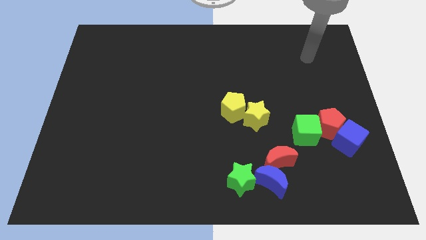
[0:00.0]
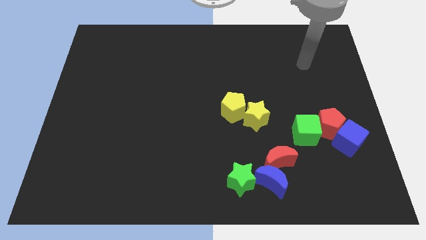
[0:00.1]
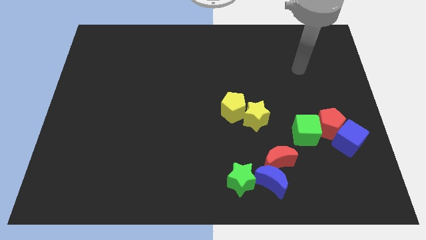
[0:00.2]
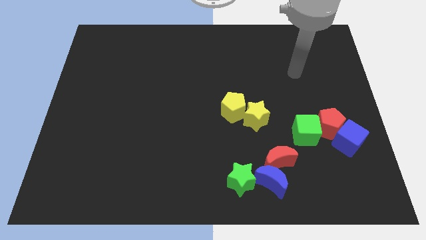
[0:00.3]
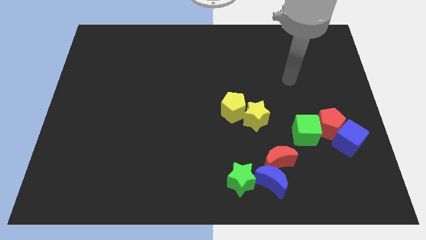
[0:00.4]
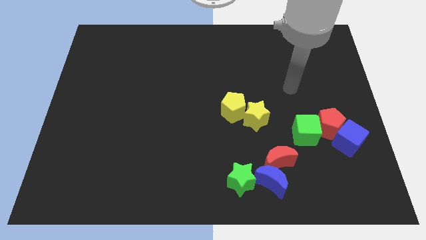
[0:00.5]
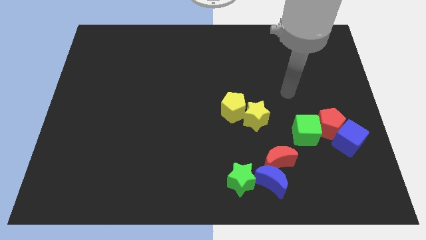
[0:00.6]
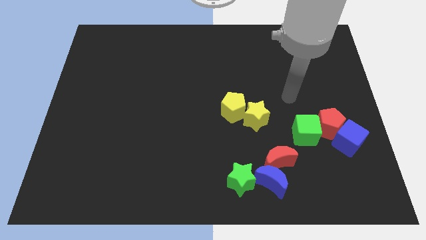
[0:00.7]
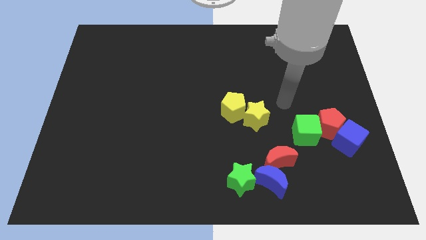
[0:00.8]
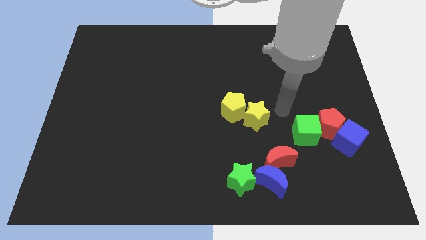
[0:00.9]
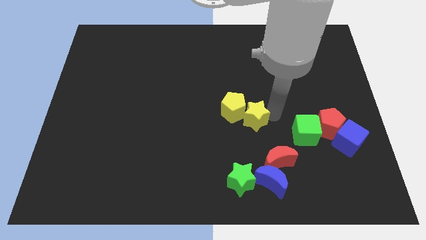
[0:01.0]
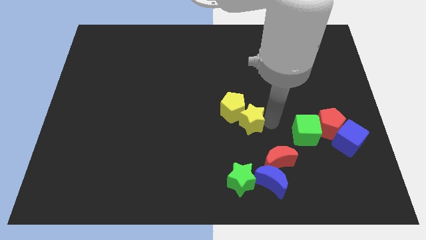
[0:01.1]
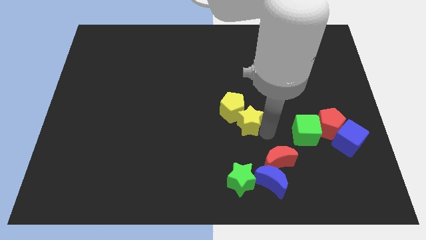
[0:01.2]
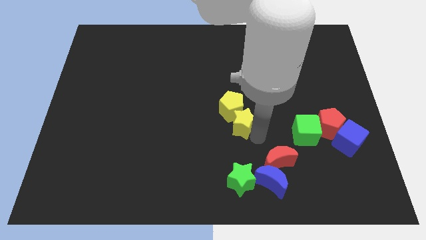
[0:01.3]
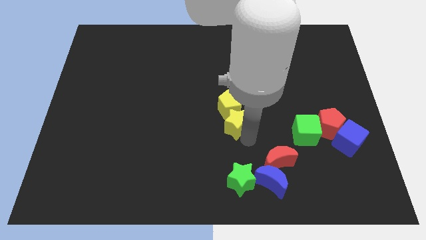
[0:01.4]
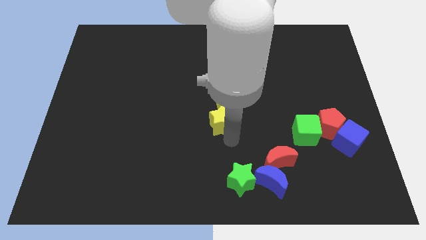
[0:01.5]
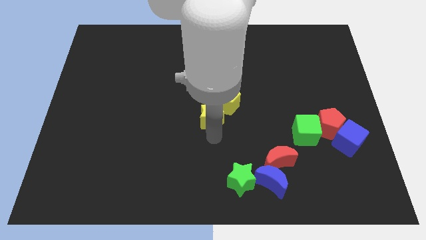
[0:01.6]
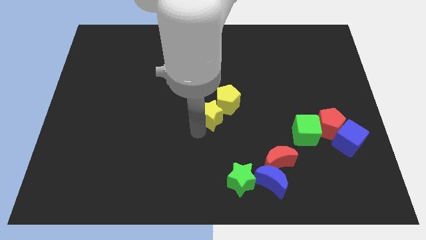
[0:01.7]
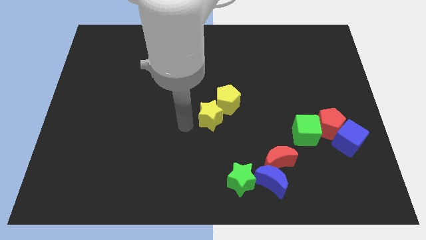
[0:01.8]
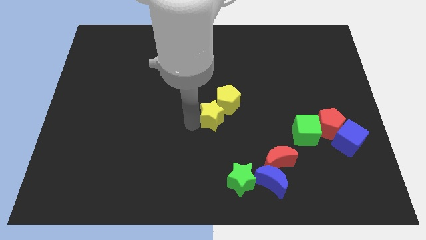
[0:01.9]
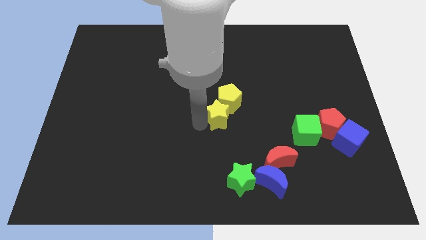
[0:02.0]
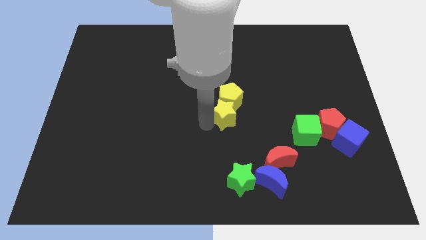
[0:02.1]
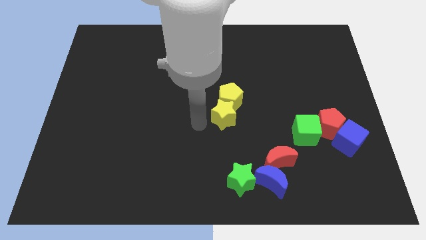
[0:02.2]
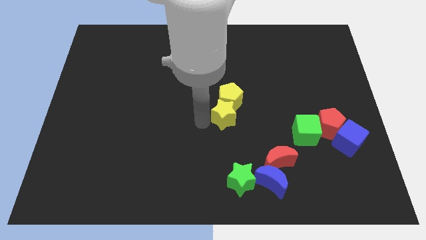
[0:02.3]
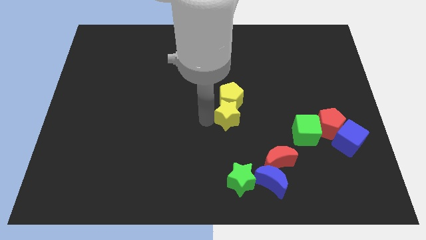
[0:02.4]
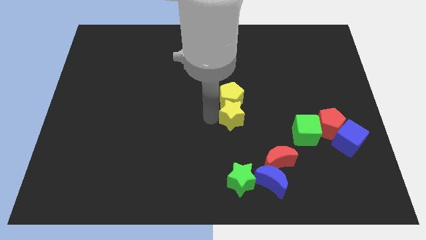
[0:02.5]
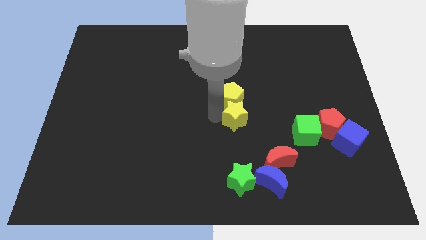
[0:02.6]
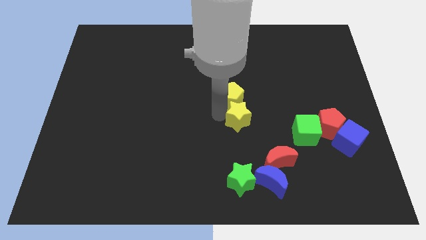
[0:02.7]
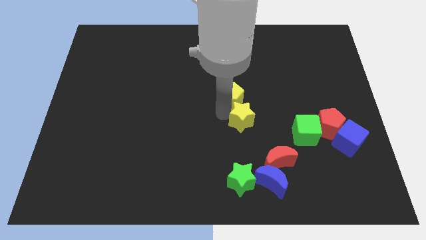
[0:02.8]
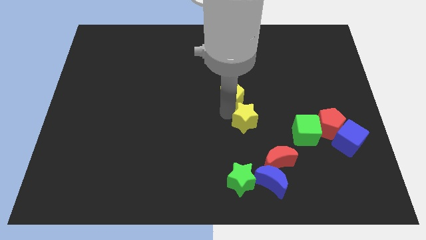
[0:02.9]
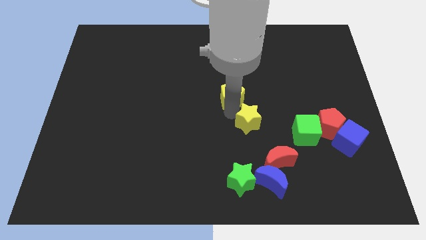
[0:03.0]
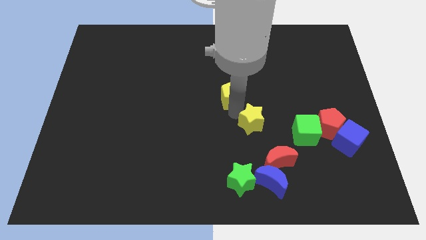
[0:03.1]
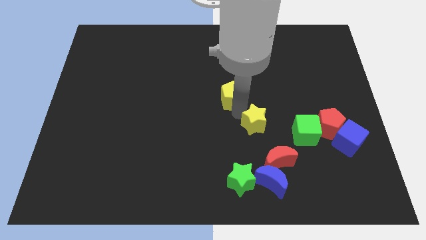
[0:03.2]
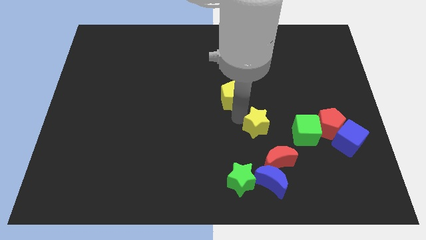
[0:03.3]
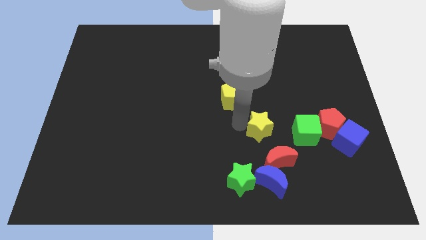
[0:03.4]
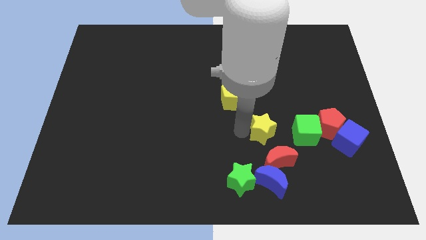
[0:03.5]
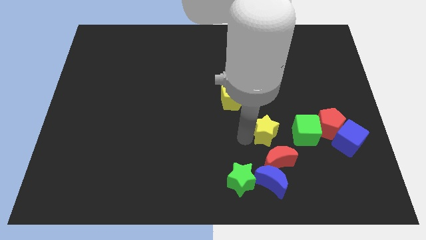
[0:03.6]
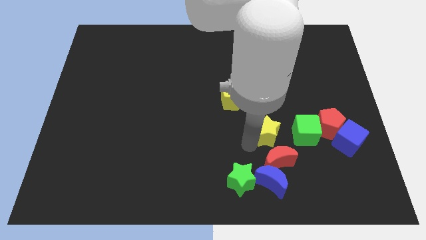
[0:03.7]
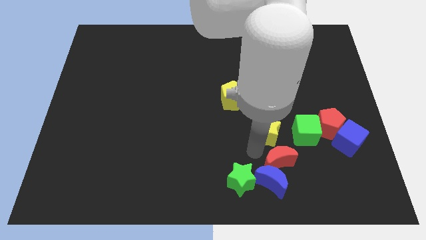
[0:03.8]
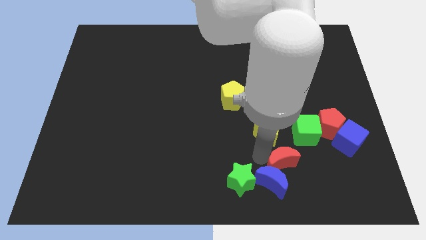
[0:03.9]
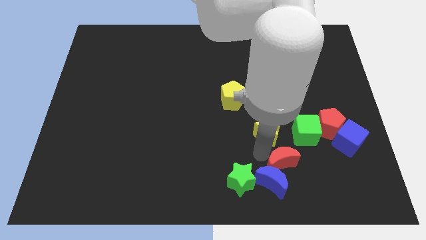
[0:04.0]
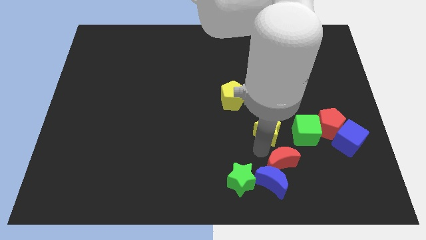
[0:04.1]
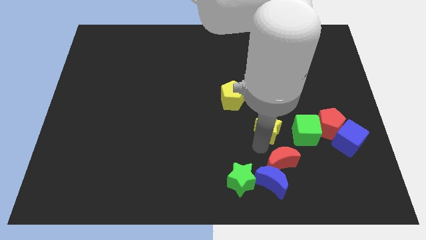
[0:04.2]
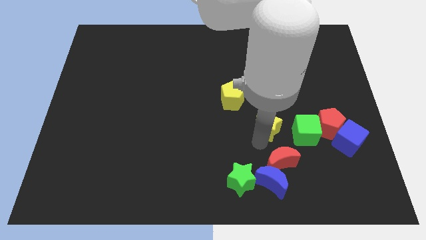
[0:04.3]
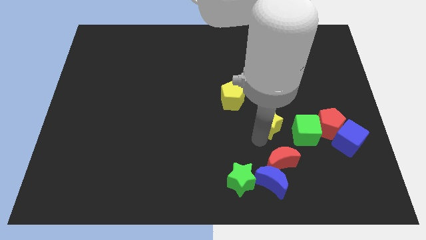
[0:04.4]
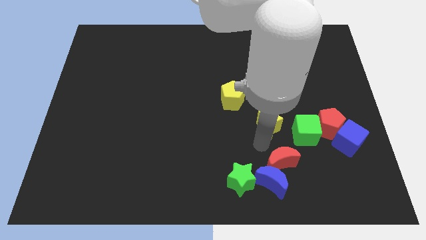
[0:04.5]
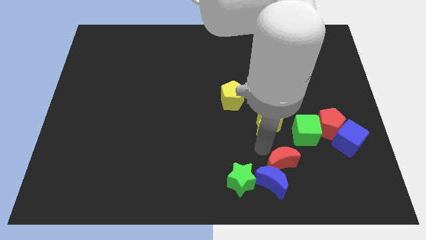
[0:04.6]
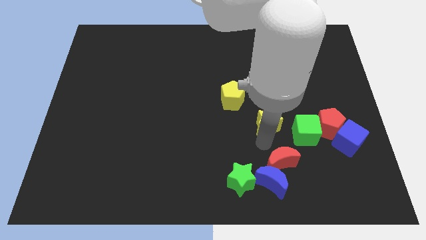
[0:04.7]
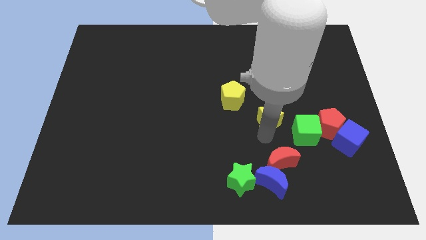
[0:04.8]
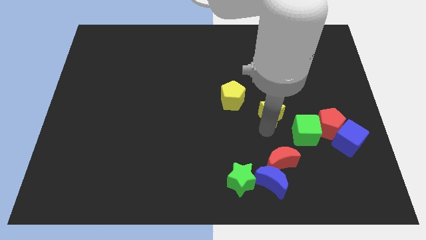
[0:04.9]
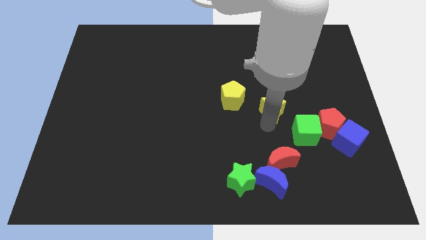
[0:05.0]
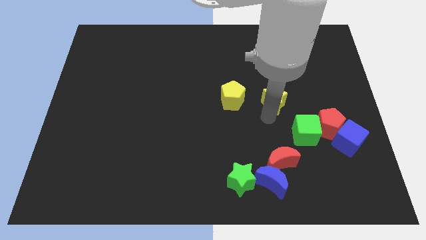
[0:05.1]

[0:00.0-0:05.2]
move the yellow star diagonally up and to the right a little

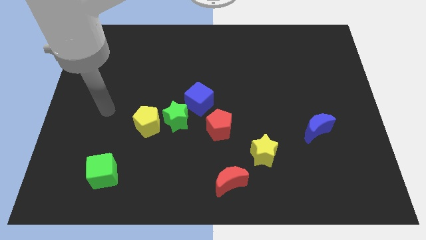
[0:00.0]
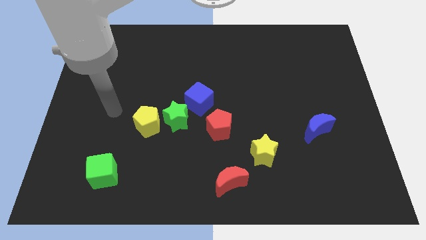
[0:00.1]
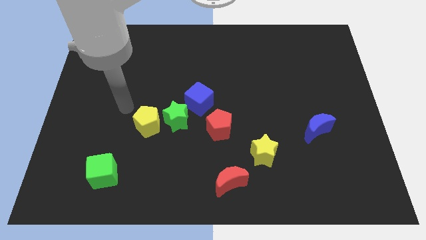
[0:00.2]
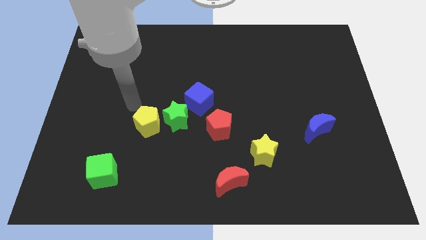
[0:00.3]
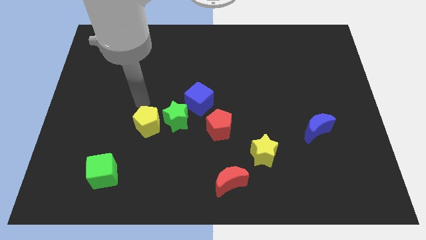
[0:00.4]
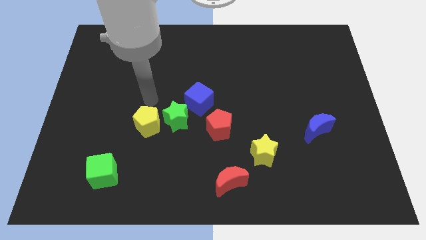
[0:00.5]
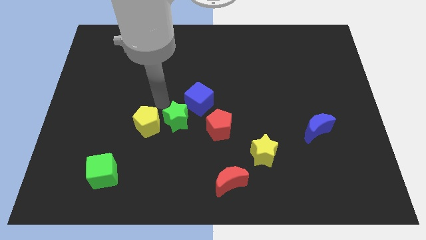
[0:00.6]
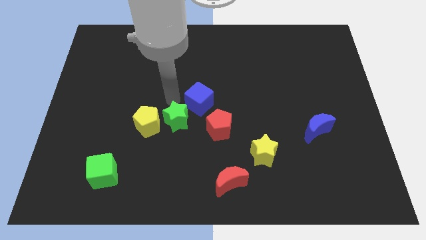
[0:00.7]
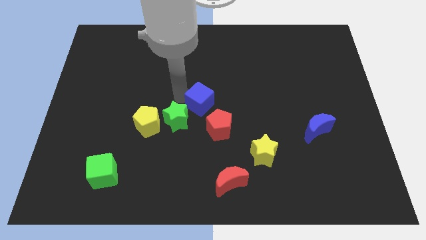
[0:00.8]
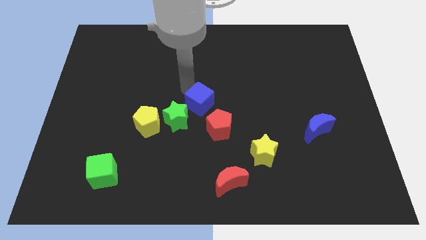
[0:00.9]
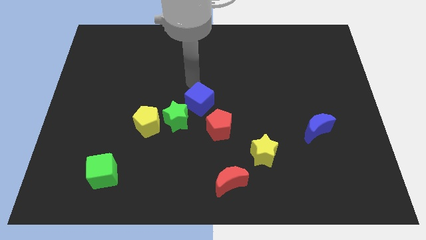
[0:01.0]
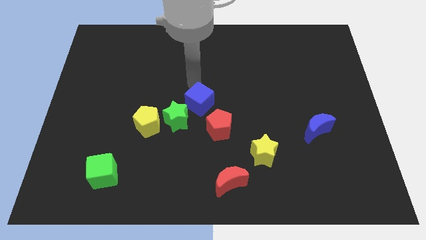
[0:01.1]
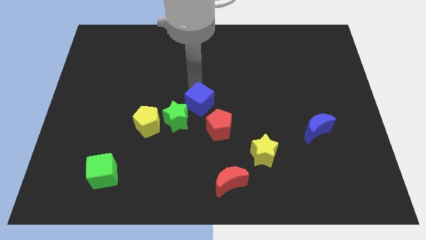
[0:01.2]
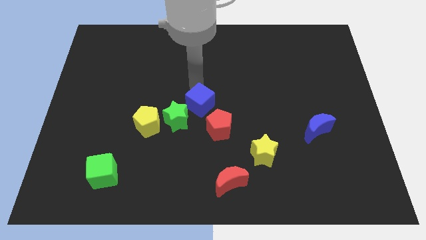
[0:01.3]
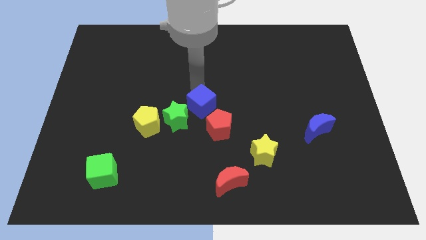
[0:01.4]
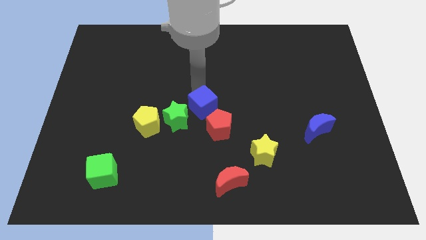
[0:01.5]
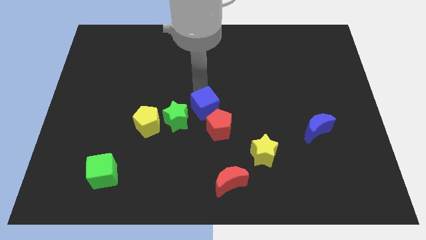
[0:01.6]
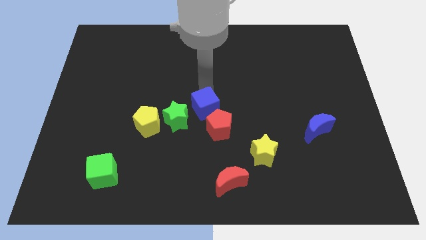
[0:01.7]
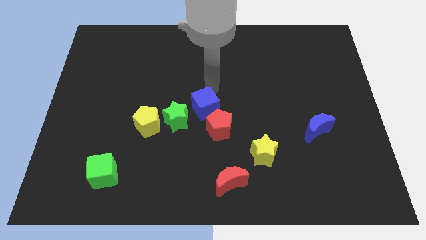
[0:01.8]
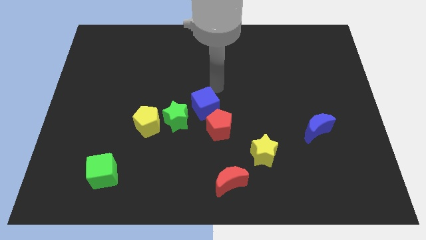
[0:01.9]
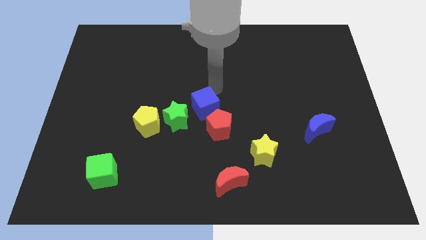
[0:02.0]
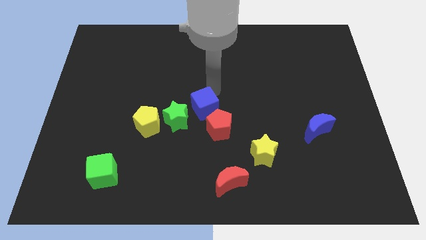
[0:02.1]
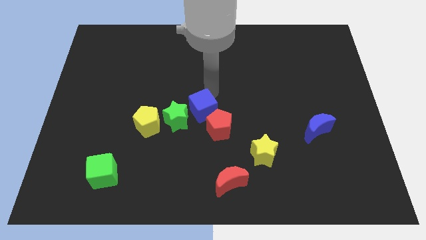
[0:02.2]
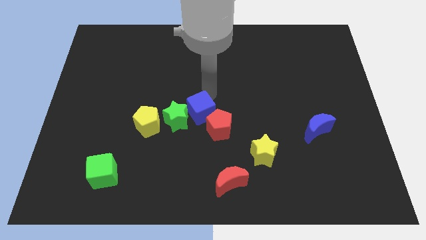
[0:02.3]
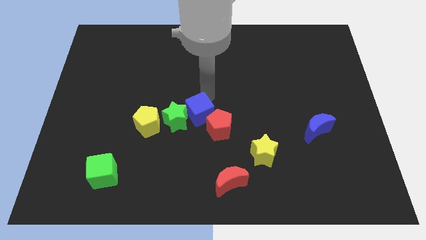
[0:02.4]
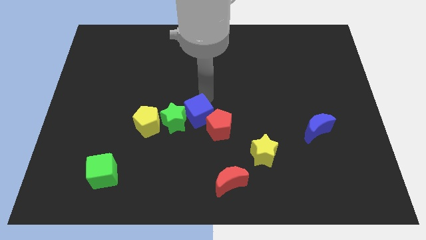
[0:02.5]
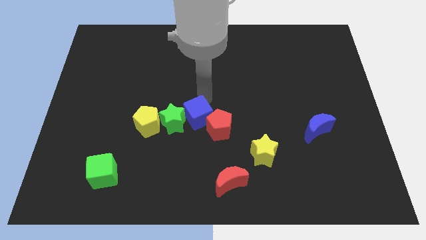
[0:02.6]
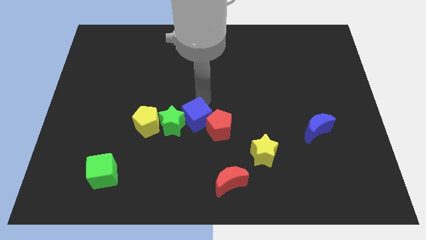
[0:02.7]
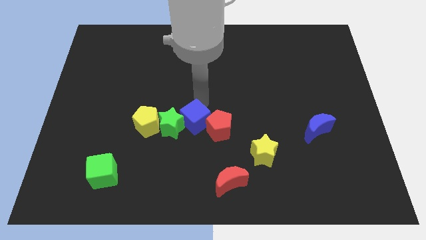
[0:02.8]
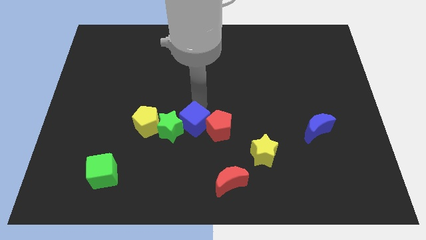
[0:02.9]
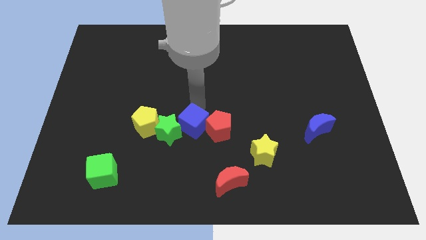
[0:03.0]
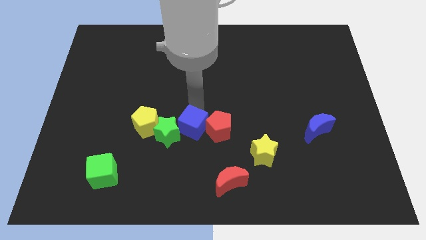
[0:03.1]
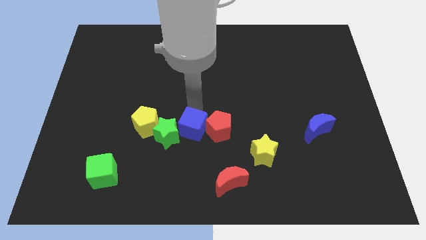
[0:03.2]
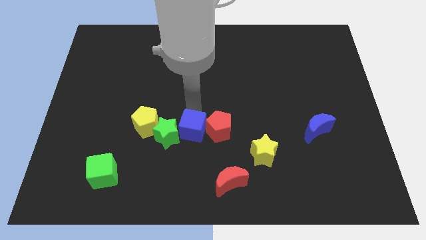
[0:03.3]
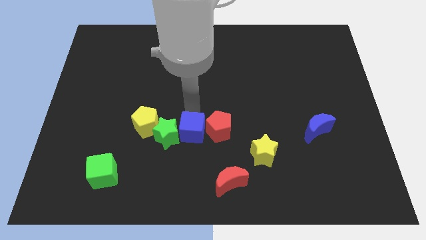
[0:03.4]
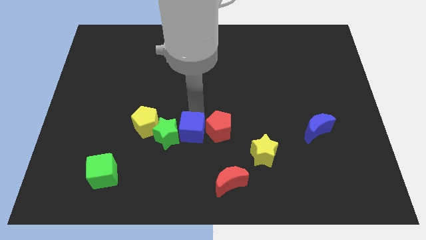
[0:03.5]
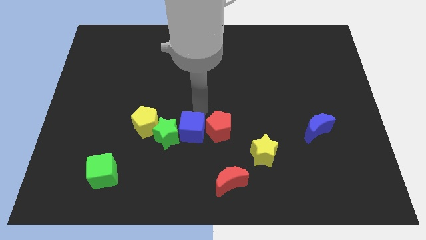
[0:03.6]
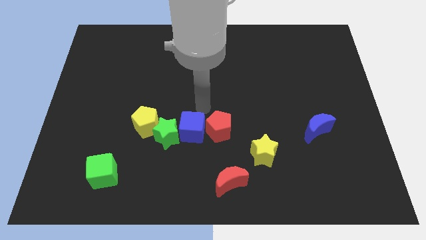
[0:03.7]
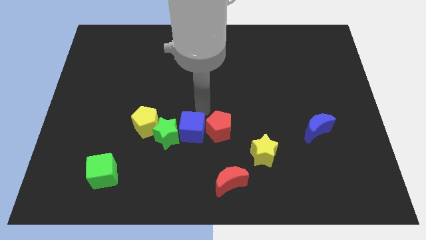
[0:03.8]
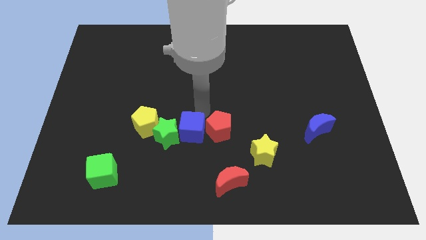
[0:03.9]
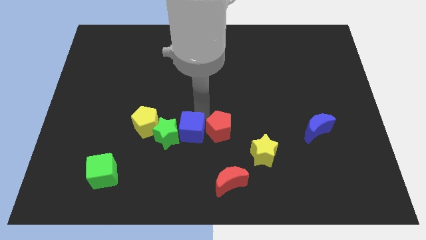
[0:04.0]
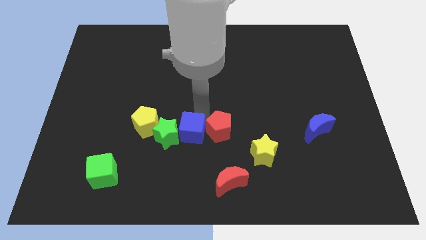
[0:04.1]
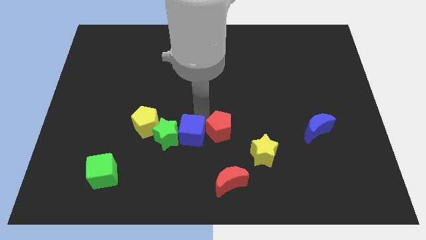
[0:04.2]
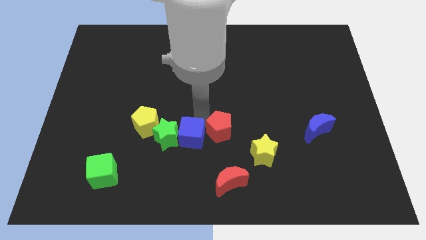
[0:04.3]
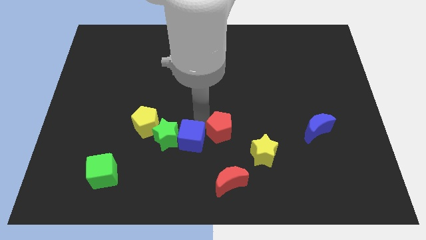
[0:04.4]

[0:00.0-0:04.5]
push the blue cube downwards and left a bit
